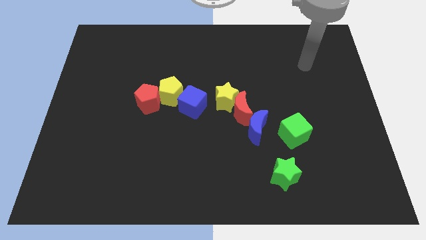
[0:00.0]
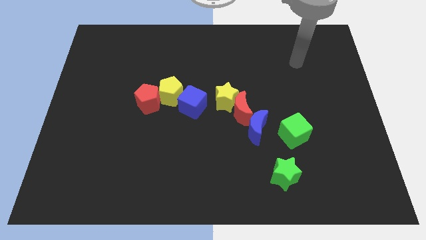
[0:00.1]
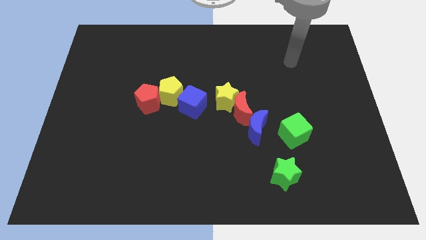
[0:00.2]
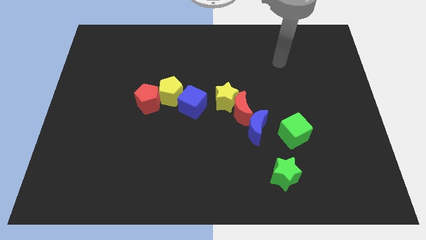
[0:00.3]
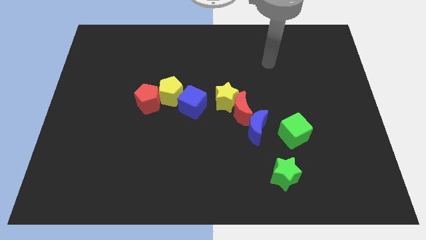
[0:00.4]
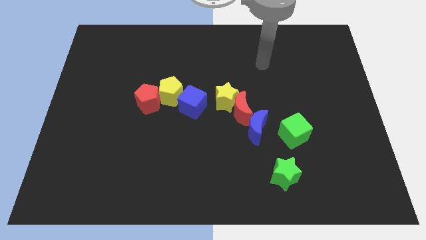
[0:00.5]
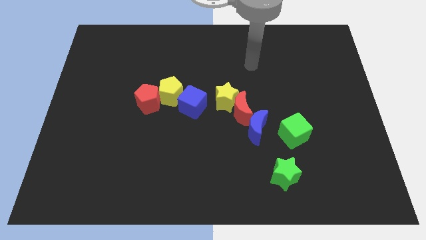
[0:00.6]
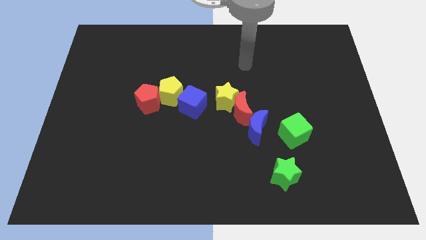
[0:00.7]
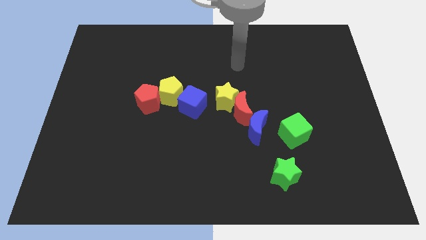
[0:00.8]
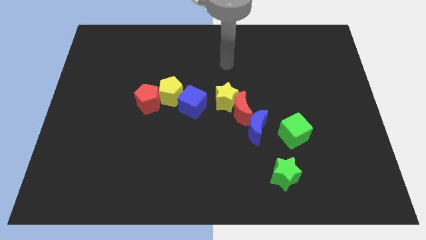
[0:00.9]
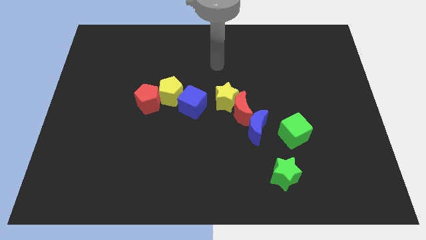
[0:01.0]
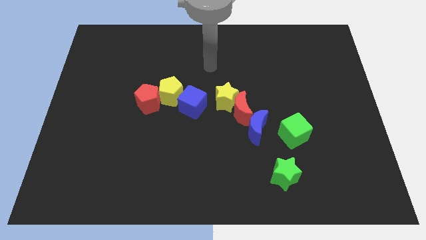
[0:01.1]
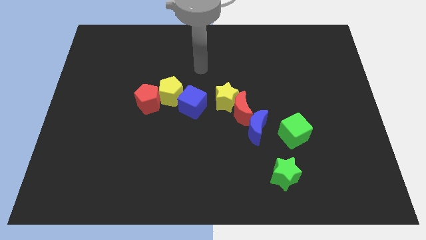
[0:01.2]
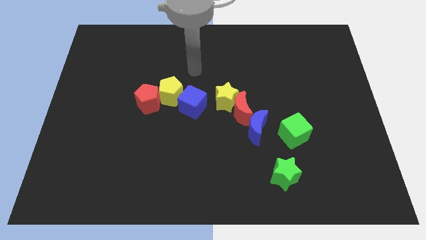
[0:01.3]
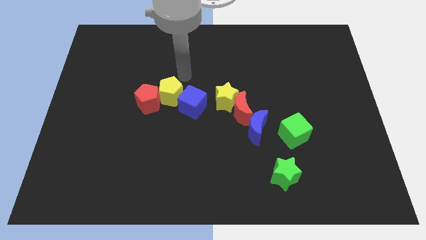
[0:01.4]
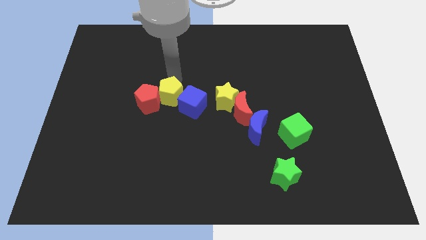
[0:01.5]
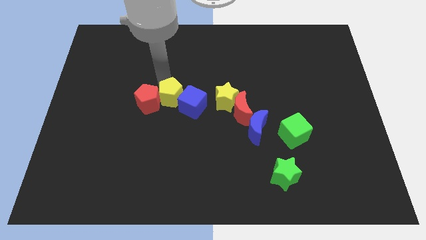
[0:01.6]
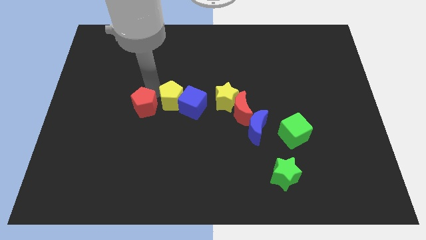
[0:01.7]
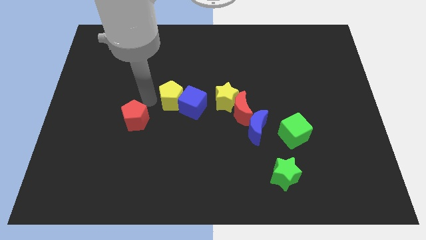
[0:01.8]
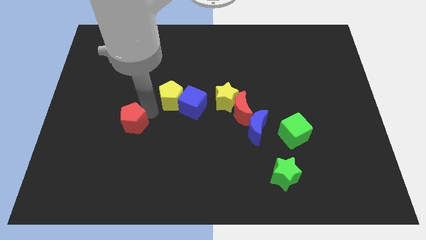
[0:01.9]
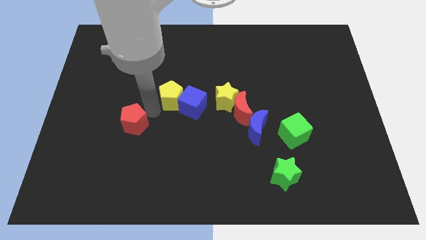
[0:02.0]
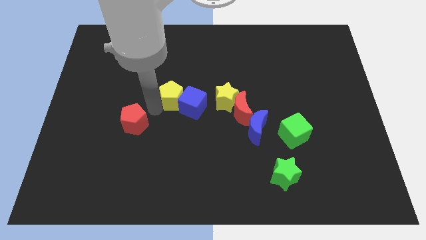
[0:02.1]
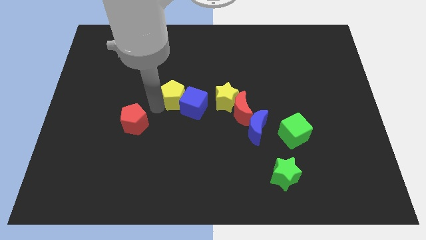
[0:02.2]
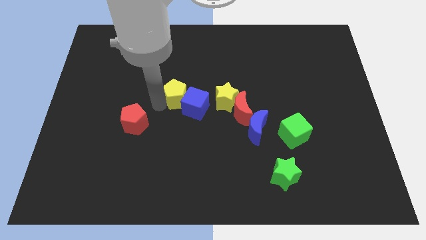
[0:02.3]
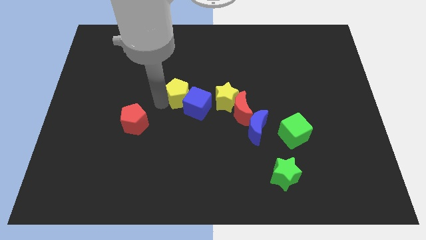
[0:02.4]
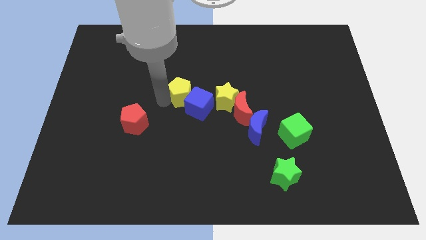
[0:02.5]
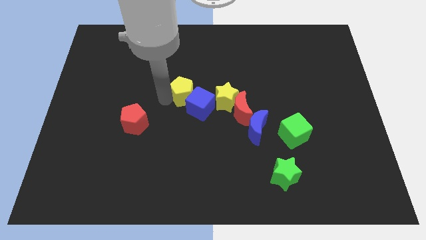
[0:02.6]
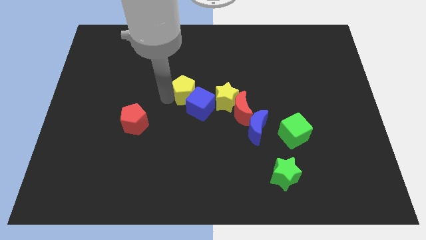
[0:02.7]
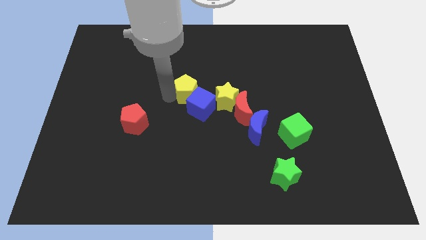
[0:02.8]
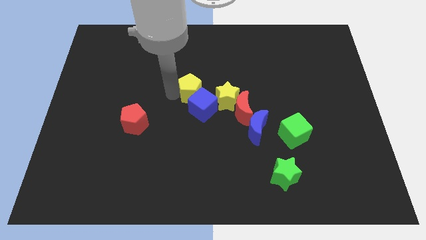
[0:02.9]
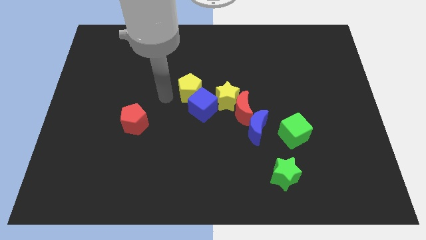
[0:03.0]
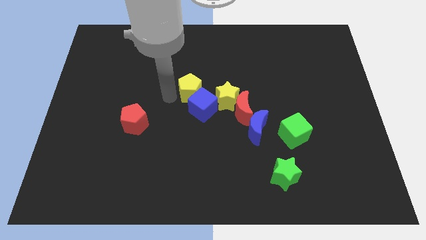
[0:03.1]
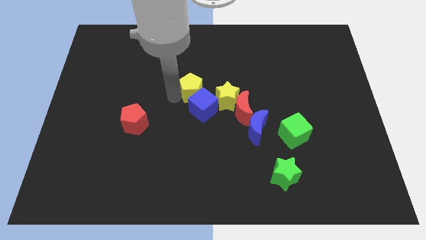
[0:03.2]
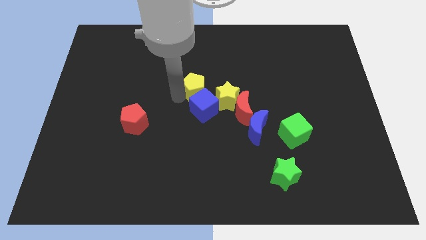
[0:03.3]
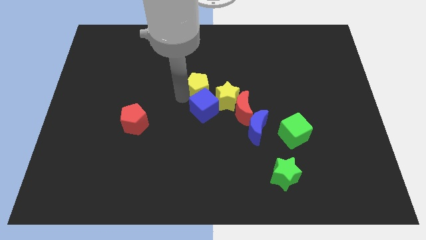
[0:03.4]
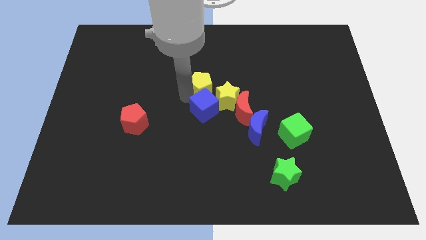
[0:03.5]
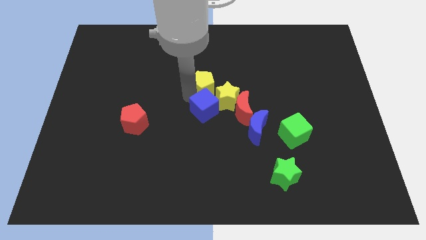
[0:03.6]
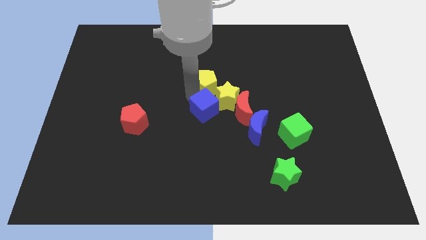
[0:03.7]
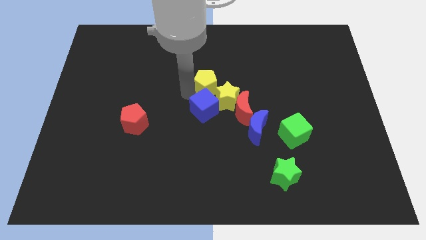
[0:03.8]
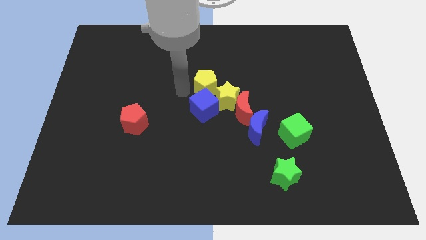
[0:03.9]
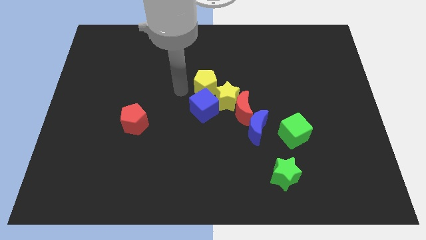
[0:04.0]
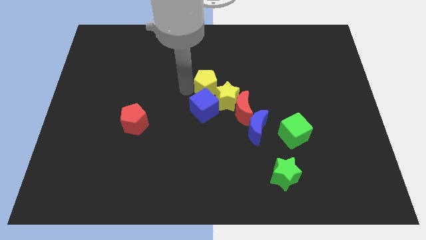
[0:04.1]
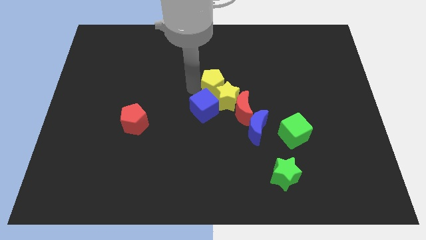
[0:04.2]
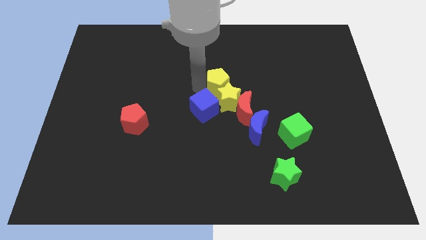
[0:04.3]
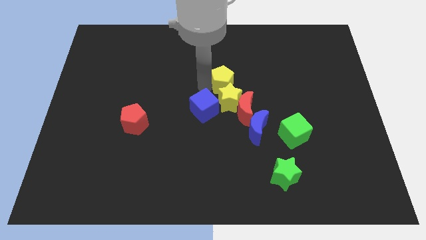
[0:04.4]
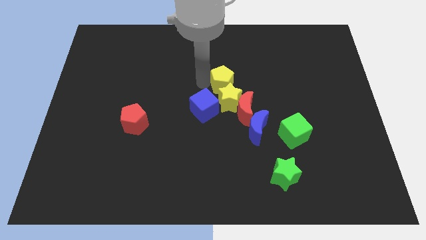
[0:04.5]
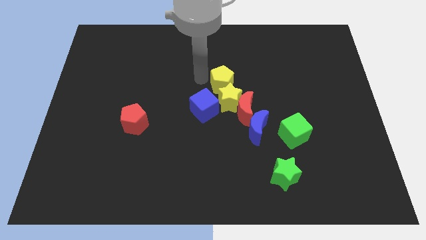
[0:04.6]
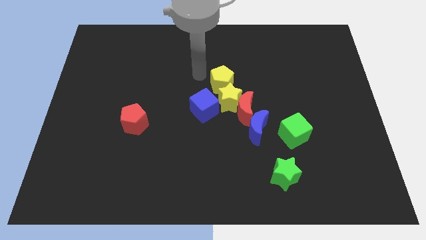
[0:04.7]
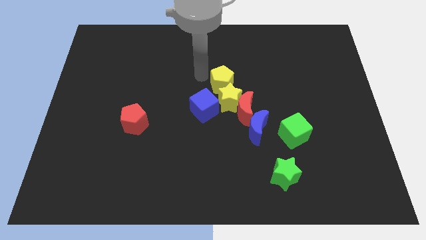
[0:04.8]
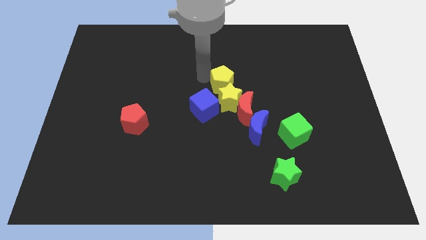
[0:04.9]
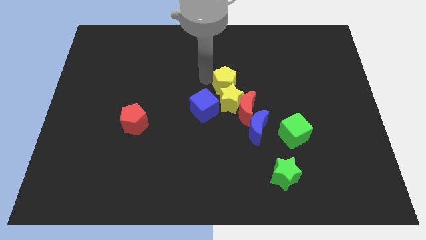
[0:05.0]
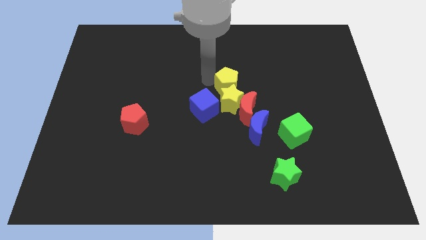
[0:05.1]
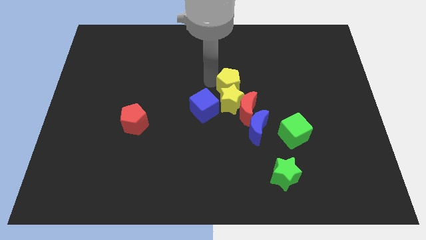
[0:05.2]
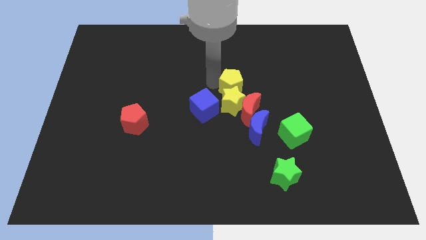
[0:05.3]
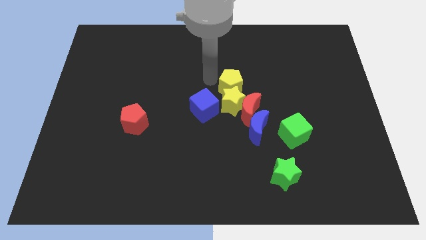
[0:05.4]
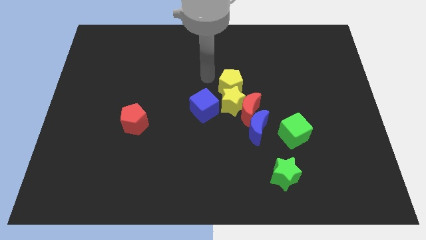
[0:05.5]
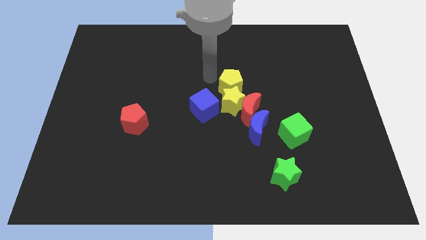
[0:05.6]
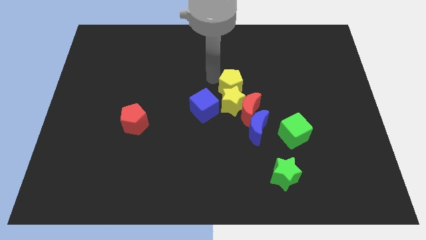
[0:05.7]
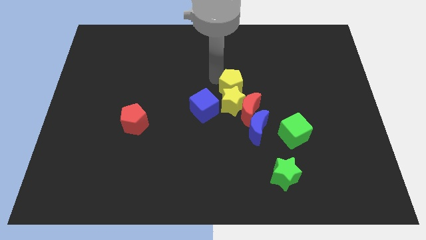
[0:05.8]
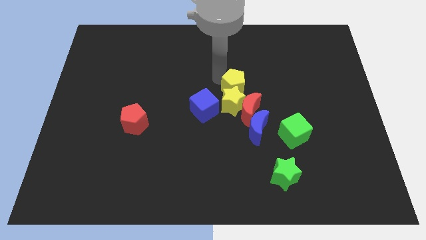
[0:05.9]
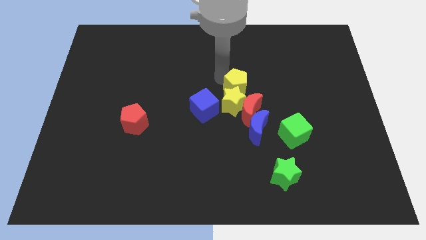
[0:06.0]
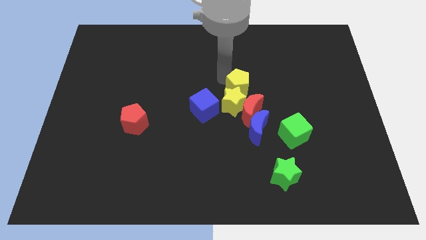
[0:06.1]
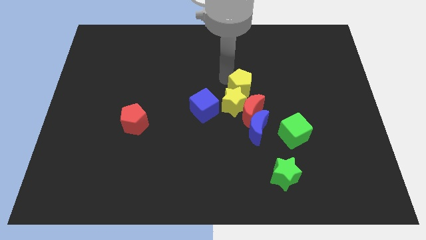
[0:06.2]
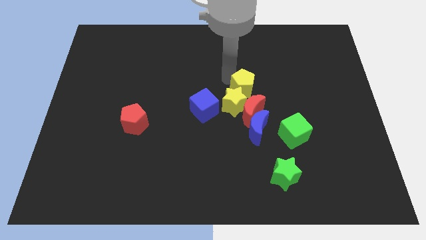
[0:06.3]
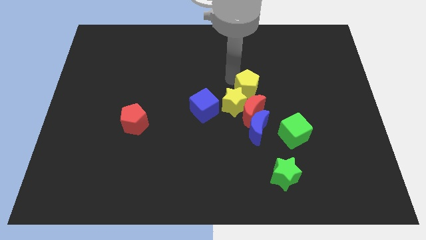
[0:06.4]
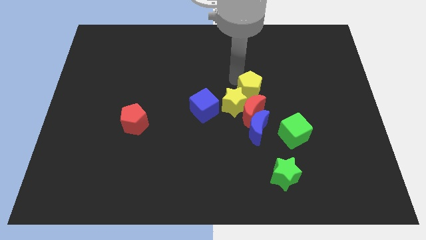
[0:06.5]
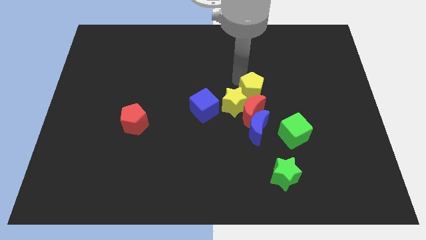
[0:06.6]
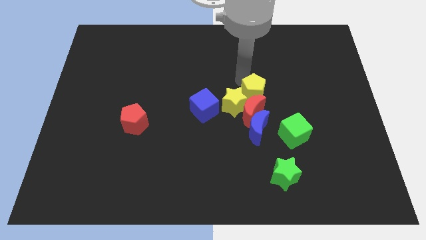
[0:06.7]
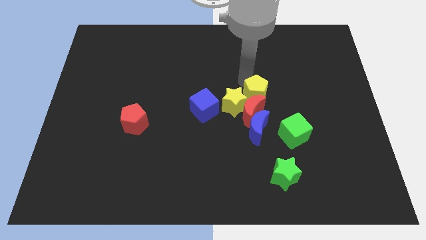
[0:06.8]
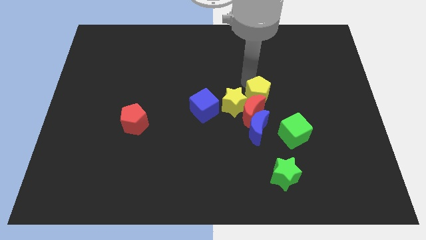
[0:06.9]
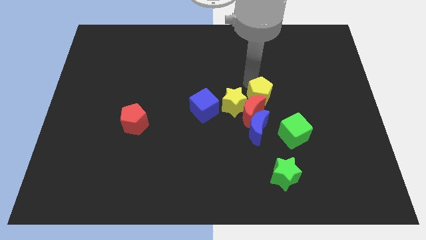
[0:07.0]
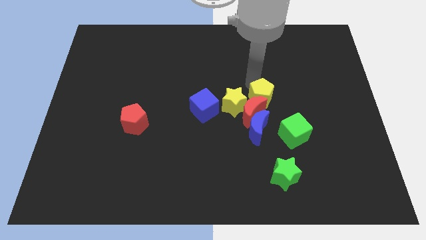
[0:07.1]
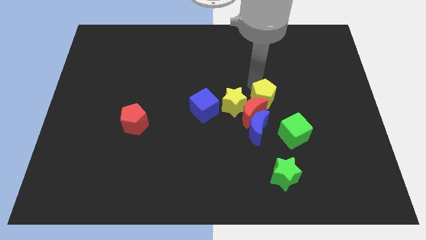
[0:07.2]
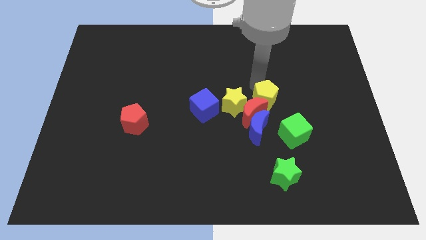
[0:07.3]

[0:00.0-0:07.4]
push the yellow pentagon to the right of the red moon
